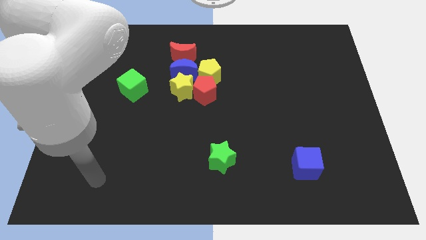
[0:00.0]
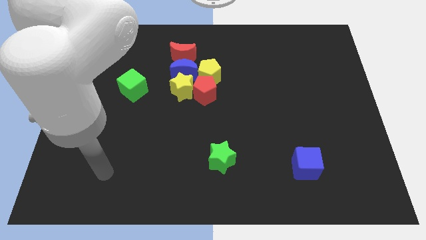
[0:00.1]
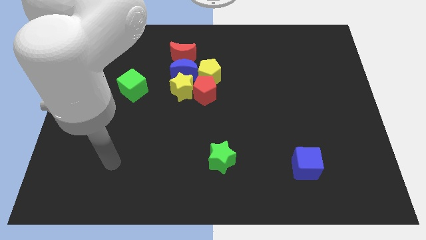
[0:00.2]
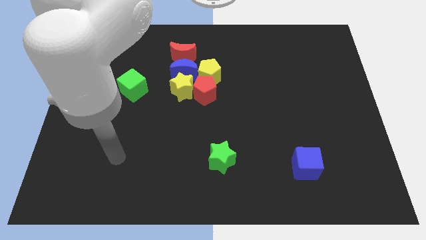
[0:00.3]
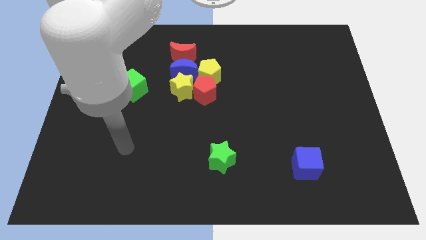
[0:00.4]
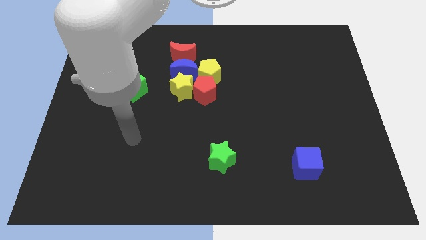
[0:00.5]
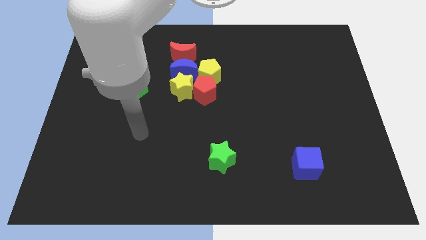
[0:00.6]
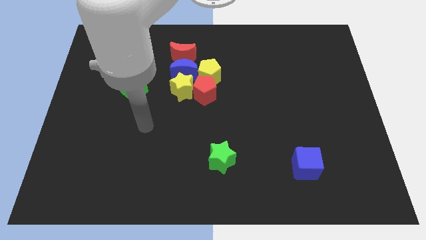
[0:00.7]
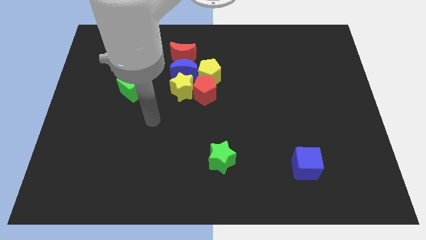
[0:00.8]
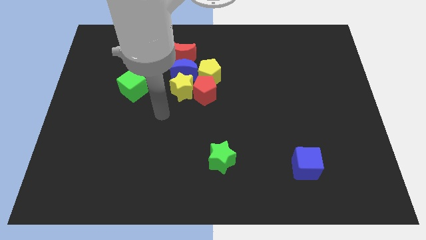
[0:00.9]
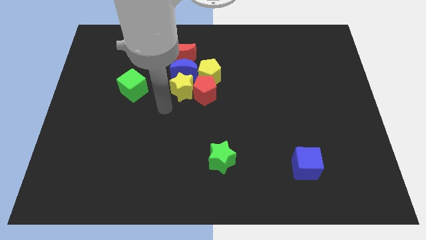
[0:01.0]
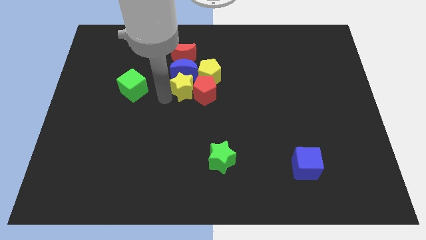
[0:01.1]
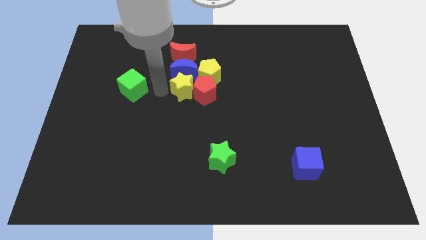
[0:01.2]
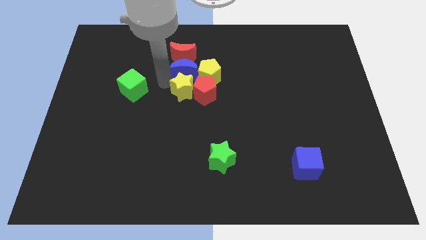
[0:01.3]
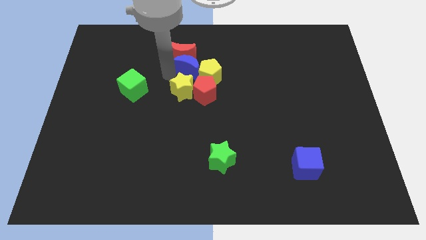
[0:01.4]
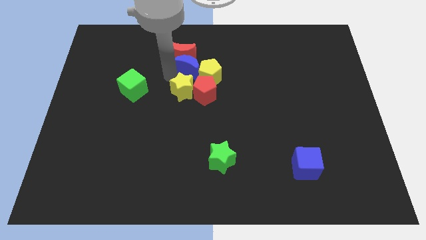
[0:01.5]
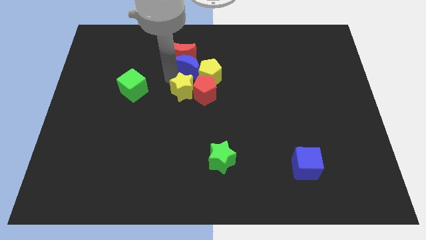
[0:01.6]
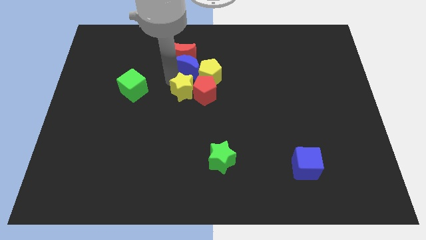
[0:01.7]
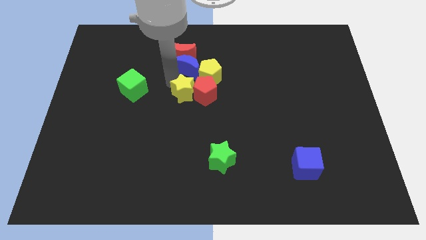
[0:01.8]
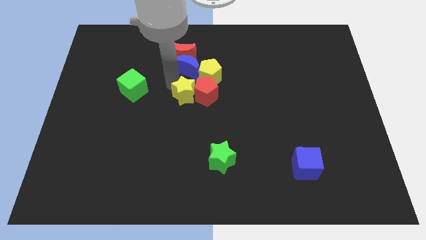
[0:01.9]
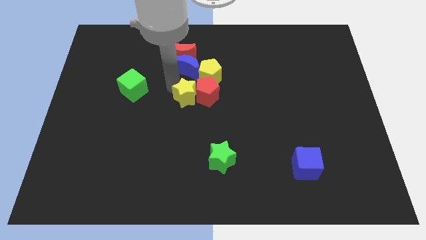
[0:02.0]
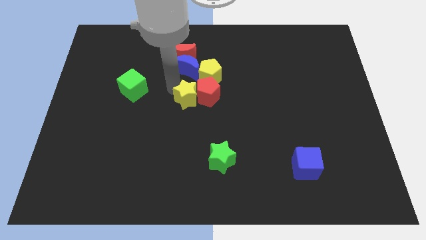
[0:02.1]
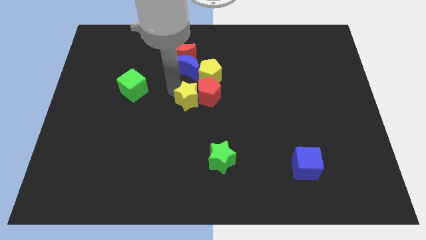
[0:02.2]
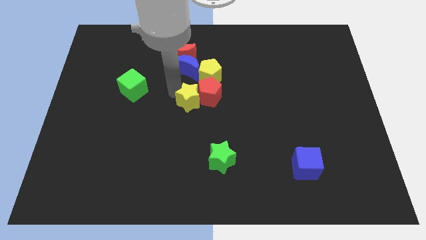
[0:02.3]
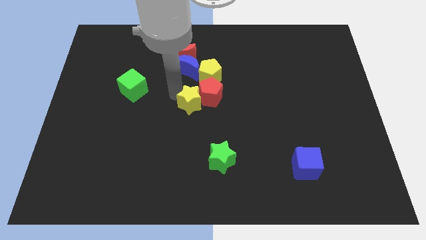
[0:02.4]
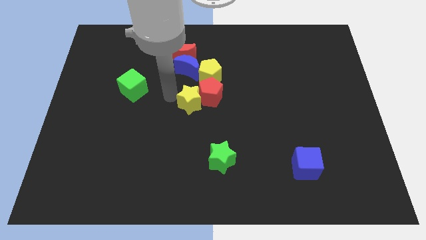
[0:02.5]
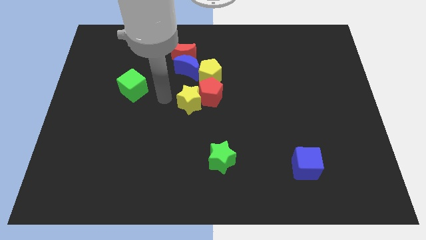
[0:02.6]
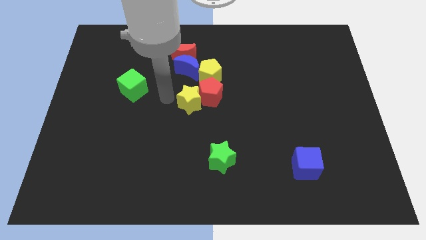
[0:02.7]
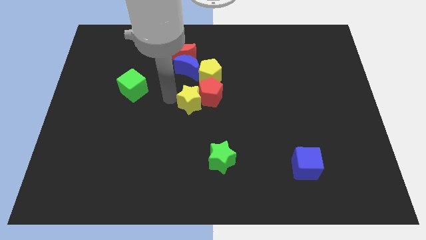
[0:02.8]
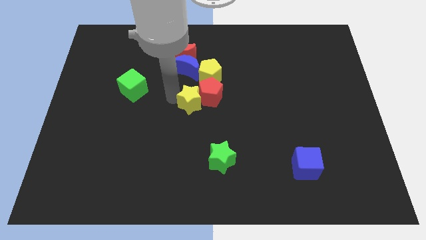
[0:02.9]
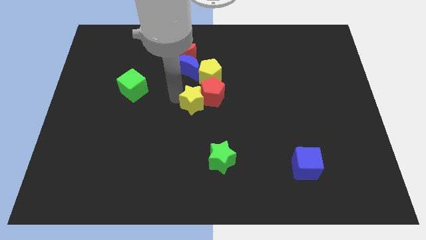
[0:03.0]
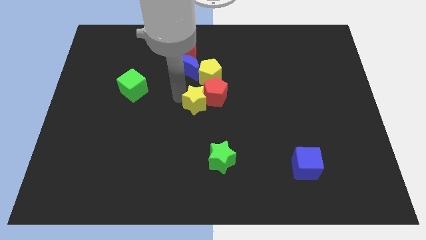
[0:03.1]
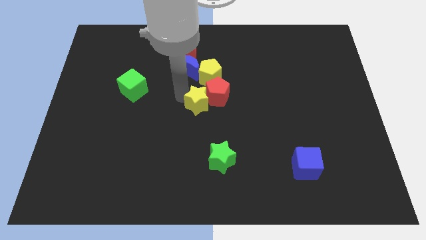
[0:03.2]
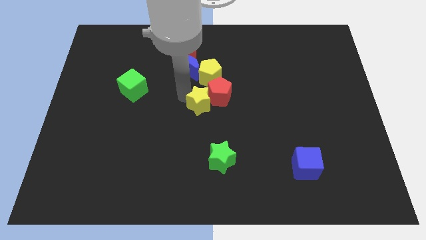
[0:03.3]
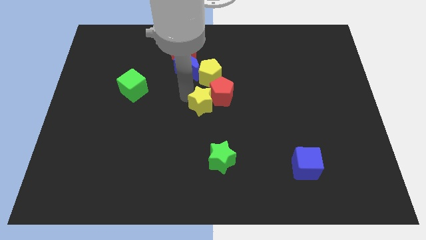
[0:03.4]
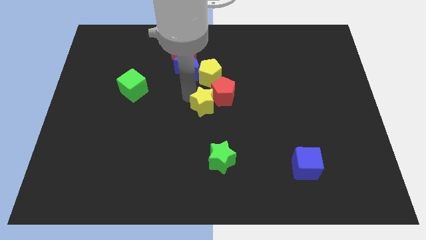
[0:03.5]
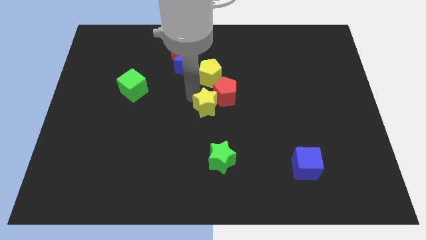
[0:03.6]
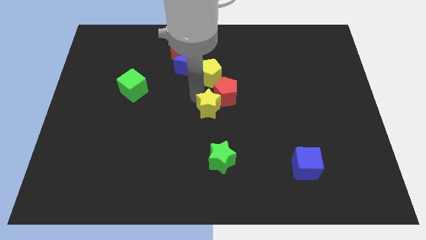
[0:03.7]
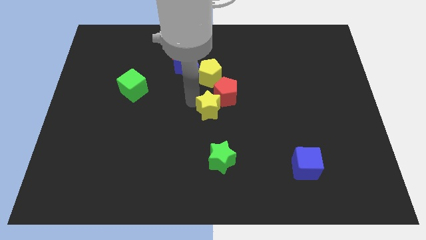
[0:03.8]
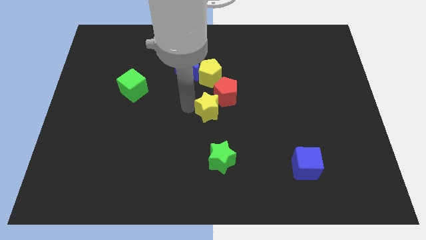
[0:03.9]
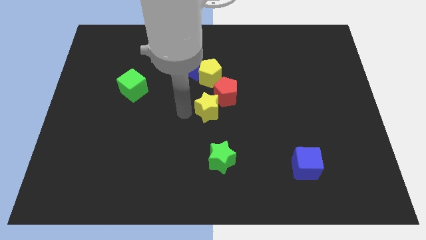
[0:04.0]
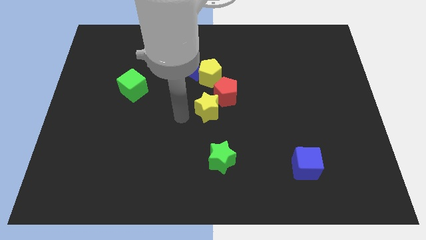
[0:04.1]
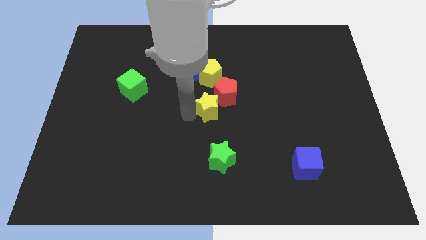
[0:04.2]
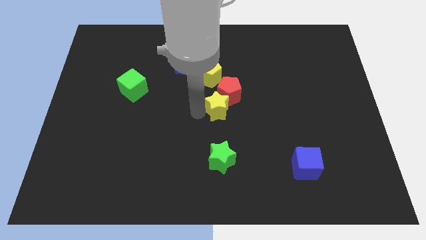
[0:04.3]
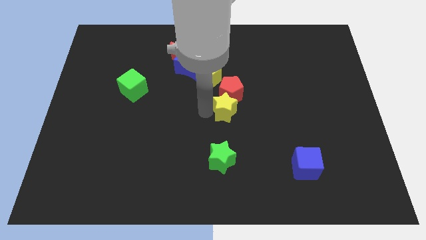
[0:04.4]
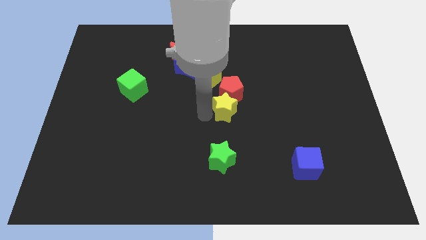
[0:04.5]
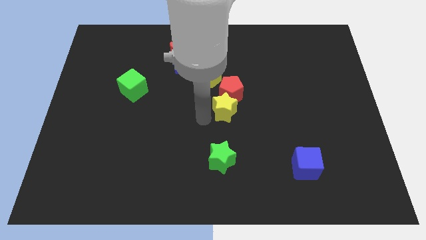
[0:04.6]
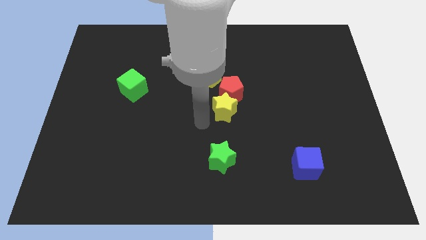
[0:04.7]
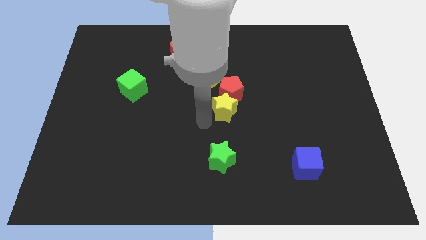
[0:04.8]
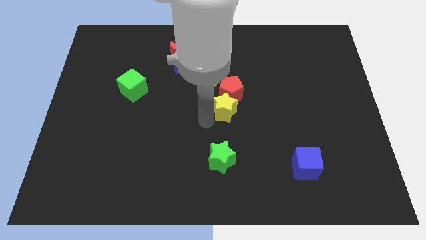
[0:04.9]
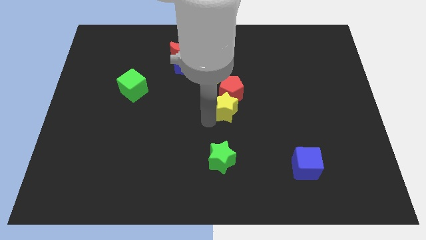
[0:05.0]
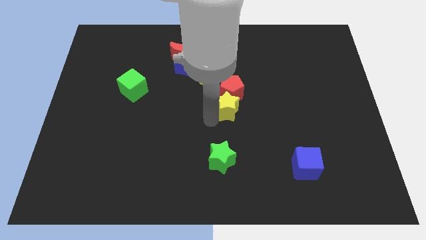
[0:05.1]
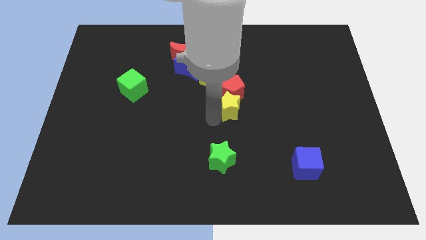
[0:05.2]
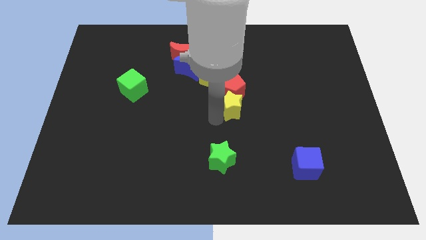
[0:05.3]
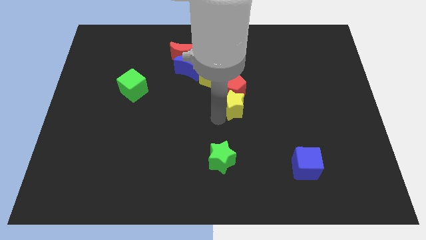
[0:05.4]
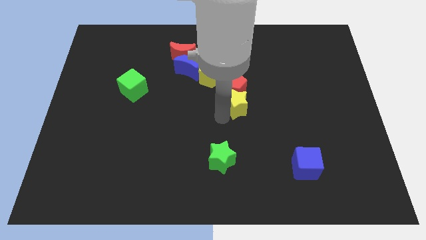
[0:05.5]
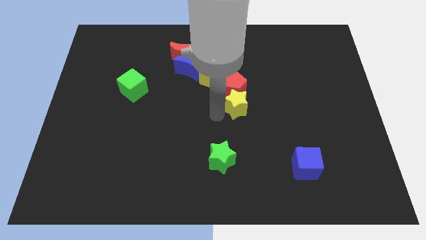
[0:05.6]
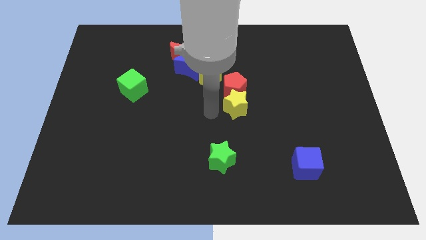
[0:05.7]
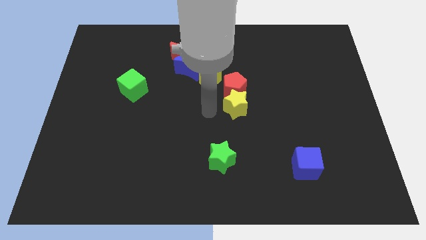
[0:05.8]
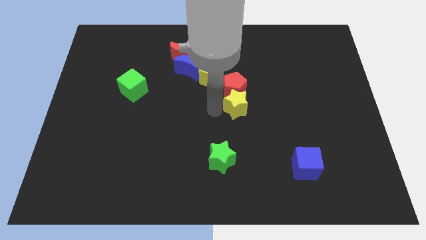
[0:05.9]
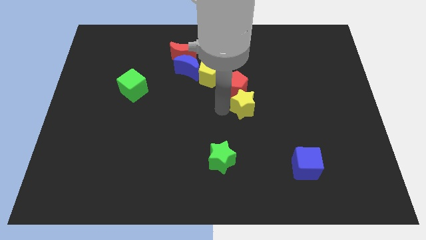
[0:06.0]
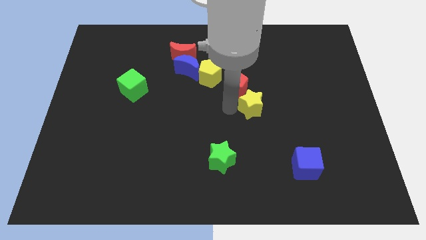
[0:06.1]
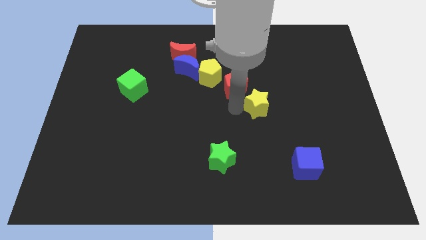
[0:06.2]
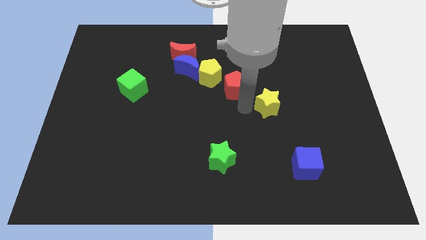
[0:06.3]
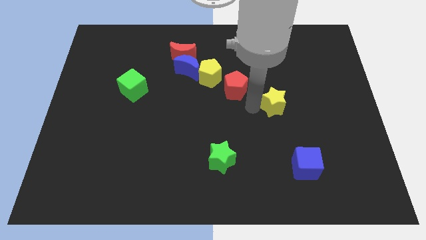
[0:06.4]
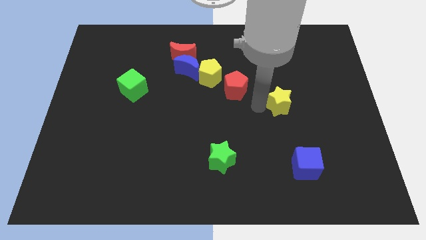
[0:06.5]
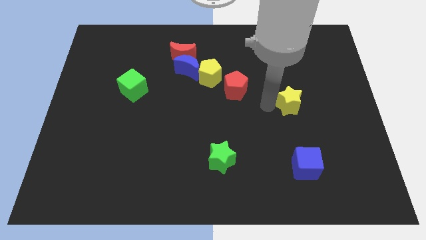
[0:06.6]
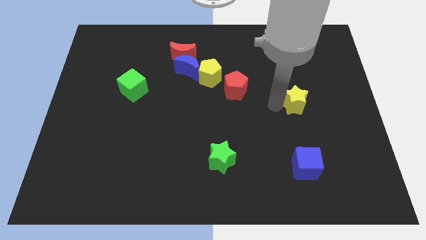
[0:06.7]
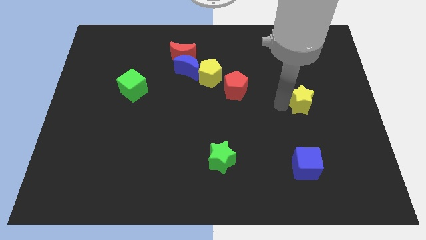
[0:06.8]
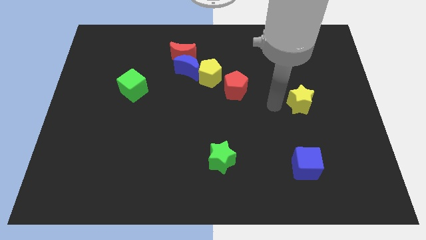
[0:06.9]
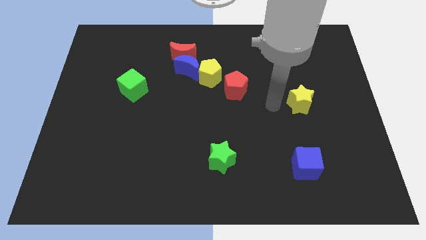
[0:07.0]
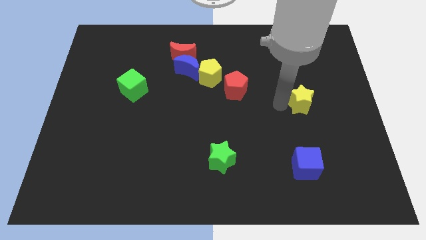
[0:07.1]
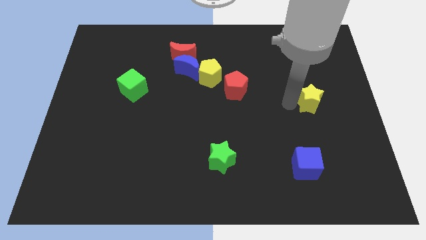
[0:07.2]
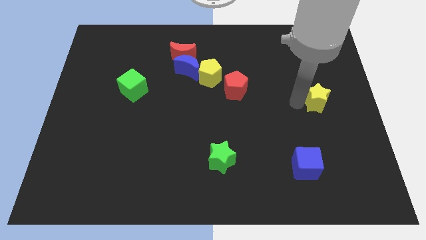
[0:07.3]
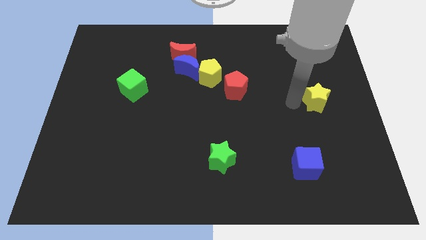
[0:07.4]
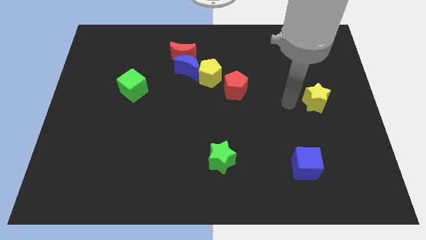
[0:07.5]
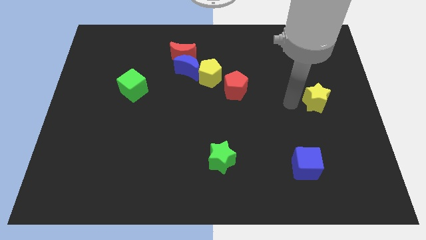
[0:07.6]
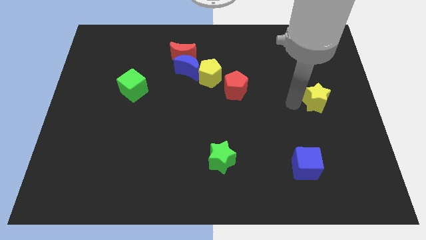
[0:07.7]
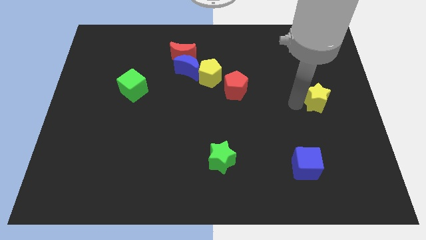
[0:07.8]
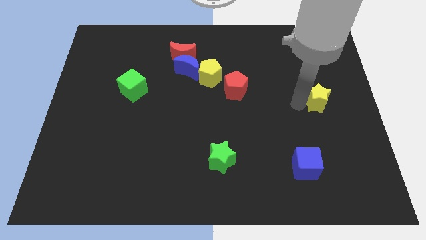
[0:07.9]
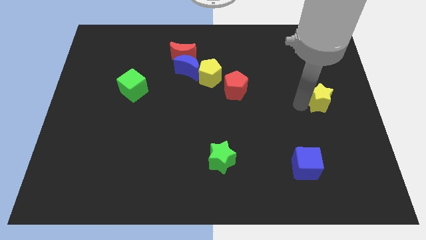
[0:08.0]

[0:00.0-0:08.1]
push the yellow star to the center right
